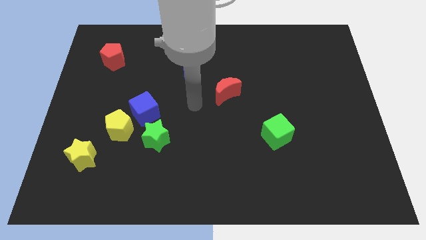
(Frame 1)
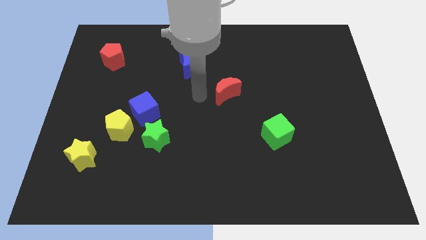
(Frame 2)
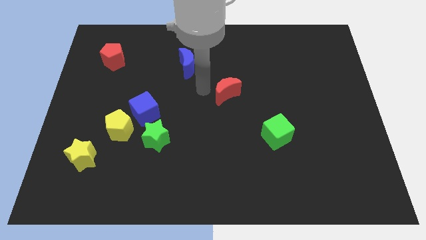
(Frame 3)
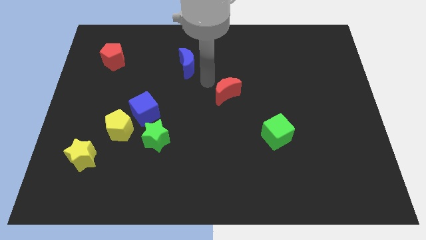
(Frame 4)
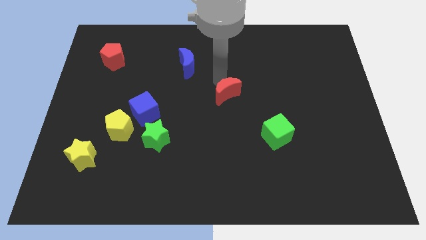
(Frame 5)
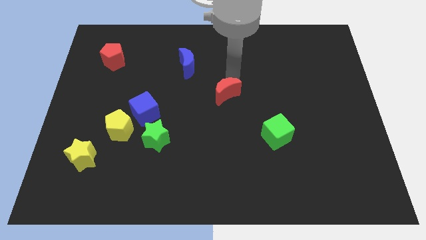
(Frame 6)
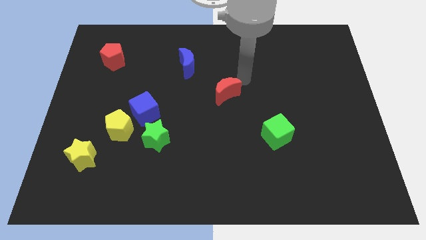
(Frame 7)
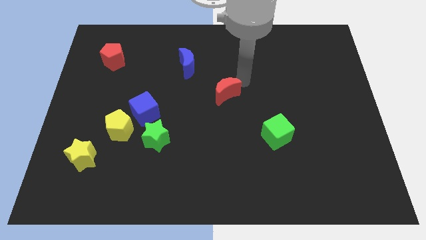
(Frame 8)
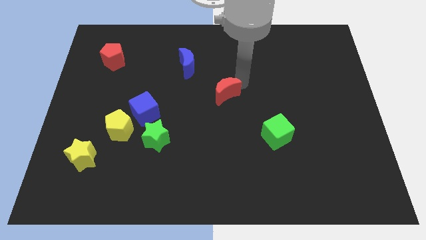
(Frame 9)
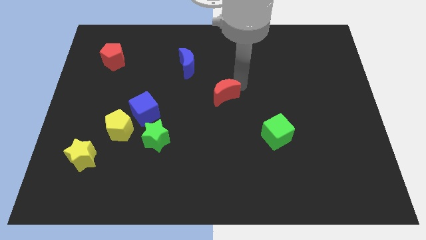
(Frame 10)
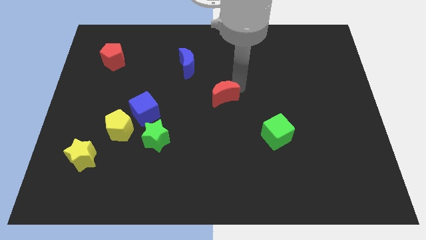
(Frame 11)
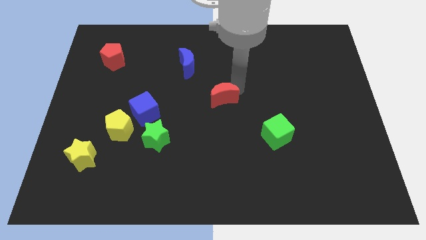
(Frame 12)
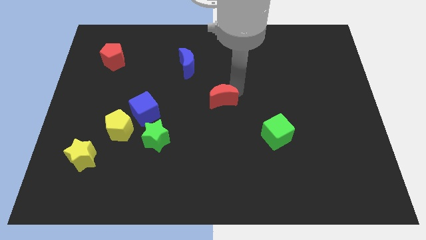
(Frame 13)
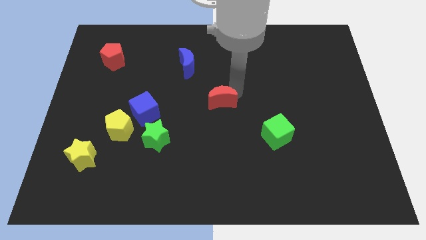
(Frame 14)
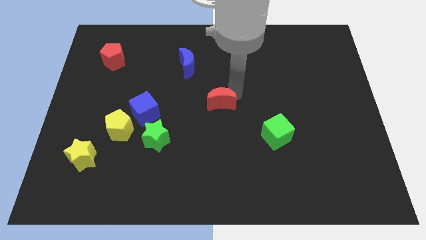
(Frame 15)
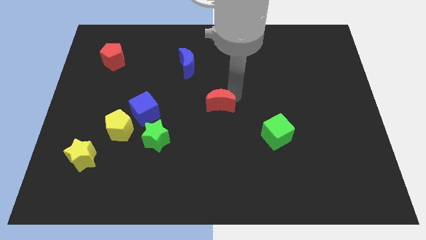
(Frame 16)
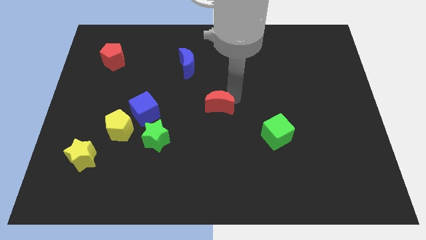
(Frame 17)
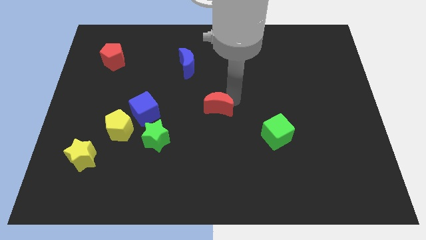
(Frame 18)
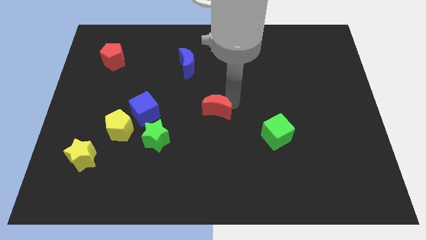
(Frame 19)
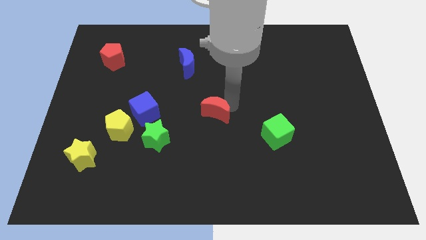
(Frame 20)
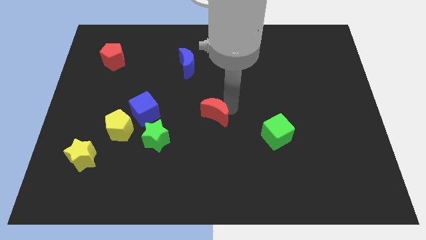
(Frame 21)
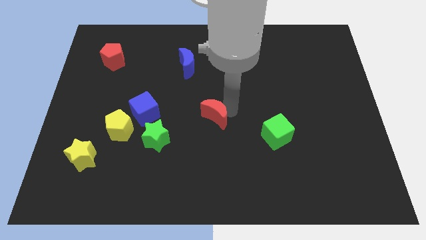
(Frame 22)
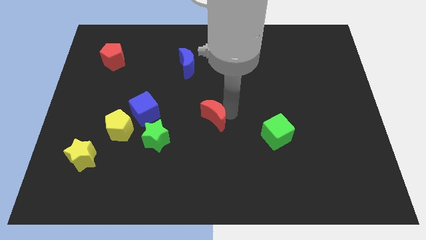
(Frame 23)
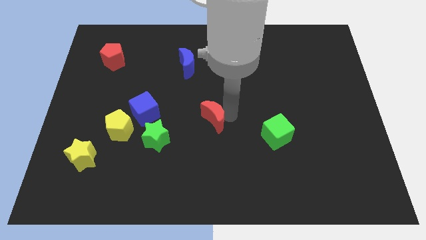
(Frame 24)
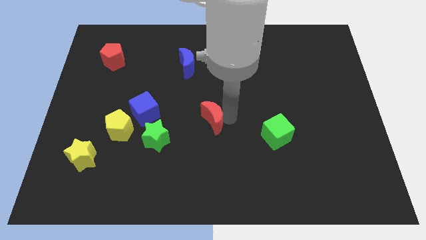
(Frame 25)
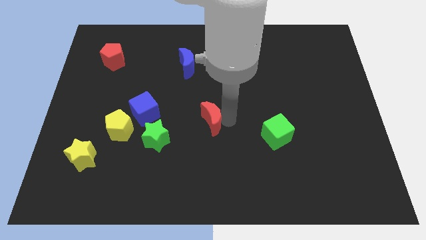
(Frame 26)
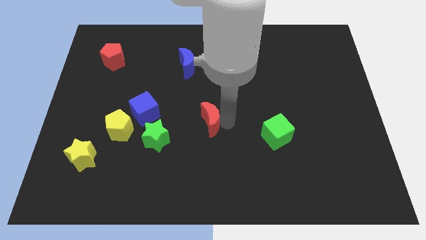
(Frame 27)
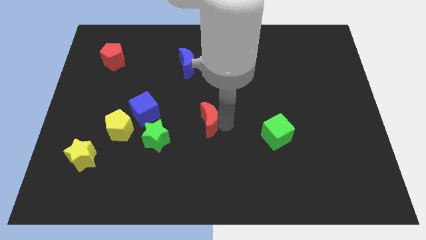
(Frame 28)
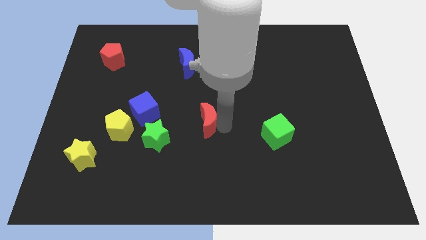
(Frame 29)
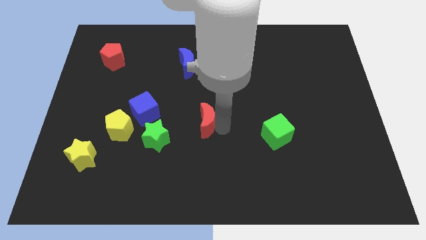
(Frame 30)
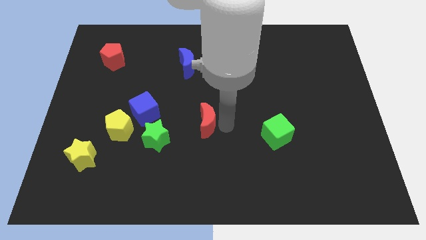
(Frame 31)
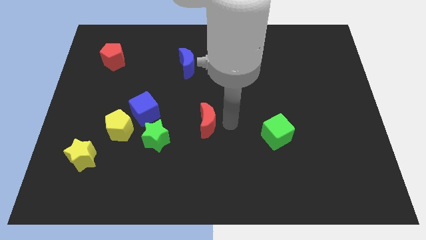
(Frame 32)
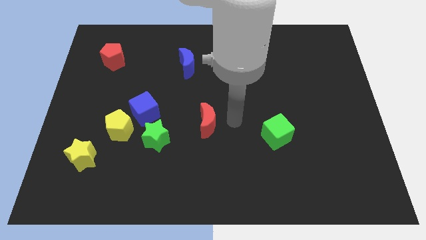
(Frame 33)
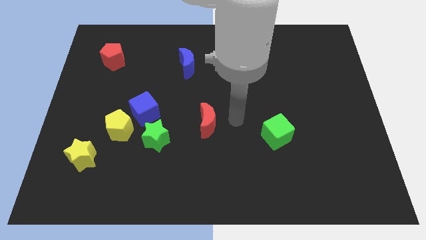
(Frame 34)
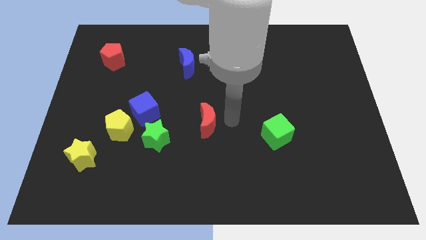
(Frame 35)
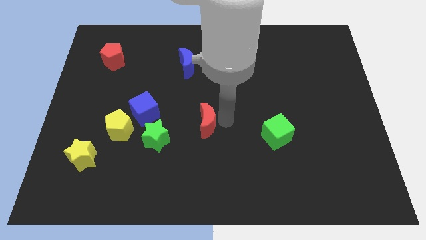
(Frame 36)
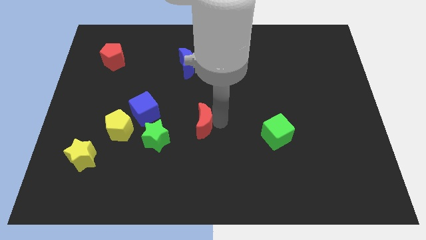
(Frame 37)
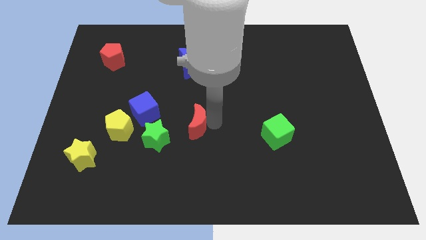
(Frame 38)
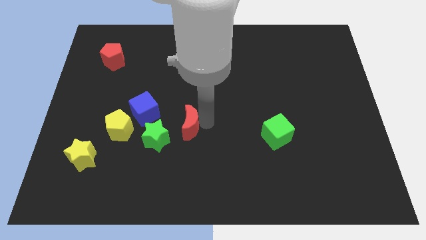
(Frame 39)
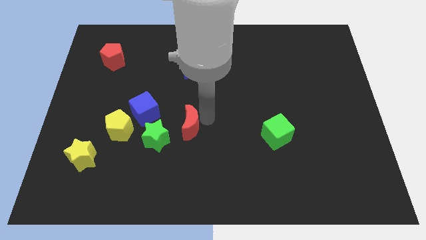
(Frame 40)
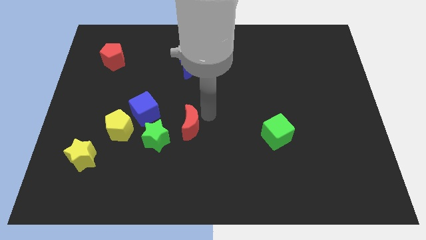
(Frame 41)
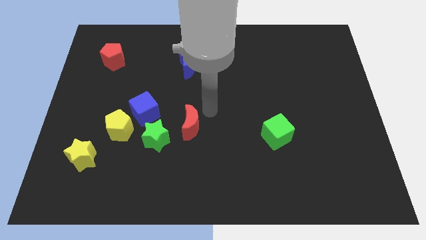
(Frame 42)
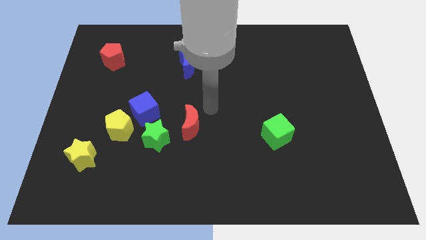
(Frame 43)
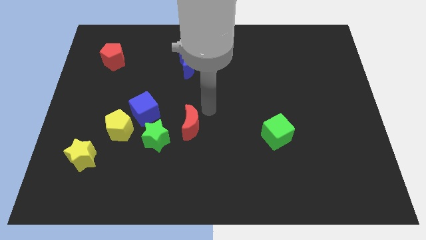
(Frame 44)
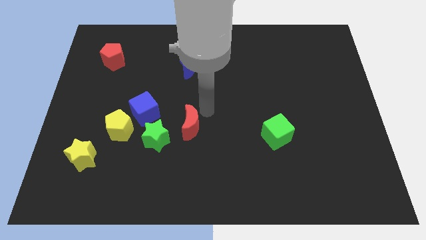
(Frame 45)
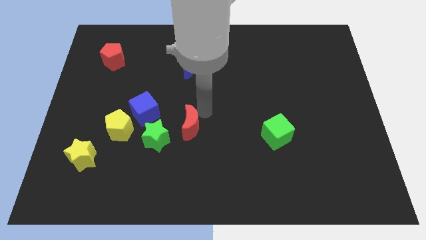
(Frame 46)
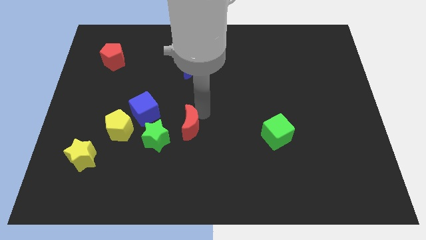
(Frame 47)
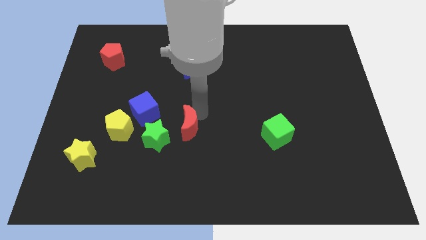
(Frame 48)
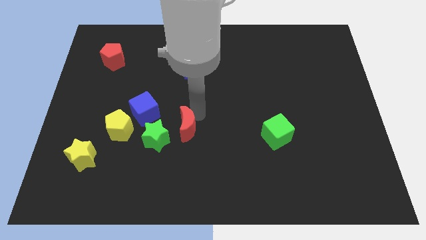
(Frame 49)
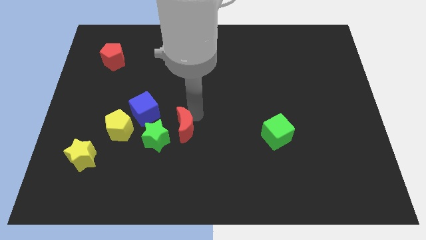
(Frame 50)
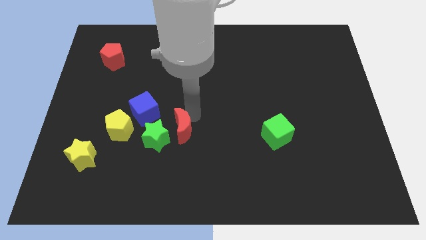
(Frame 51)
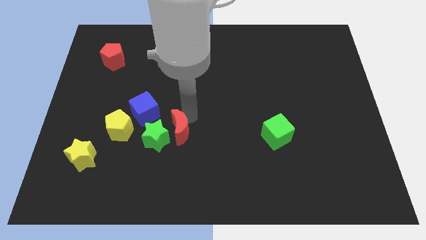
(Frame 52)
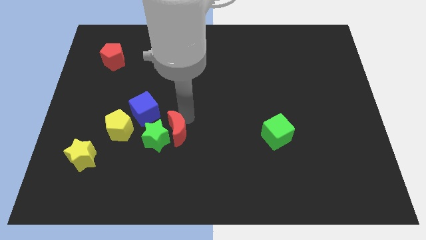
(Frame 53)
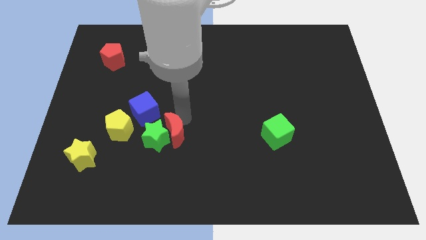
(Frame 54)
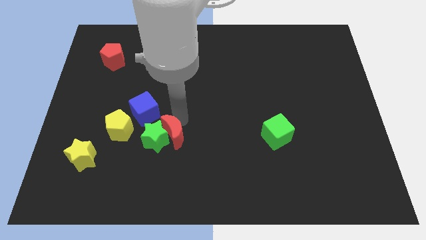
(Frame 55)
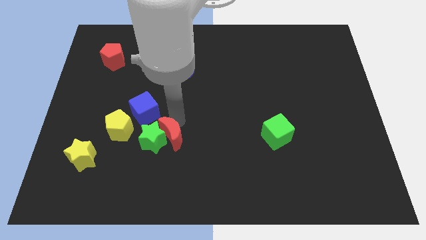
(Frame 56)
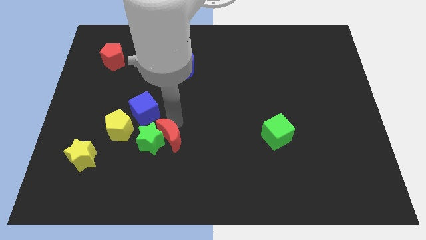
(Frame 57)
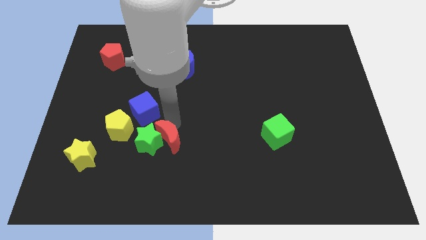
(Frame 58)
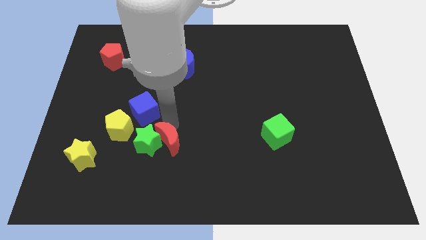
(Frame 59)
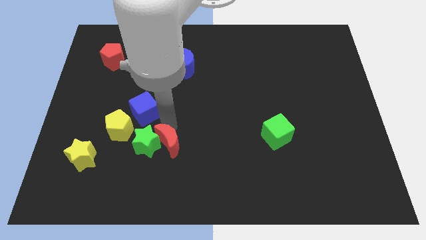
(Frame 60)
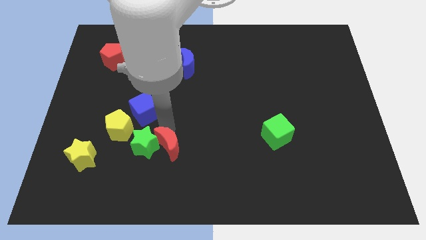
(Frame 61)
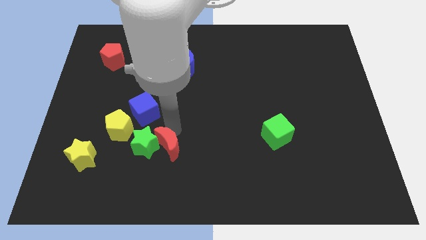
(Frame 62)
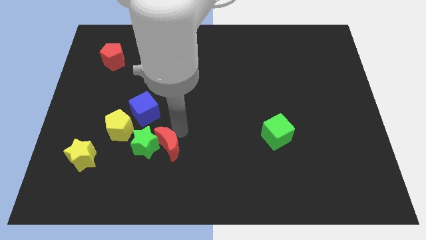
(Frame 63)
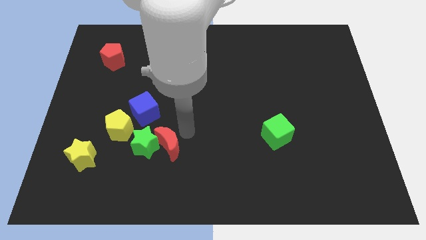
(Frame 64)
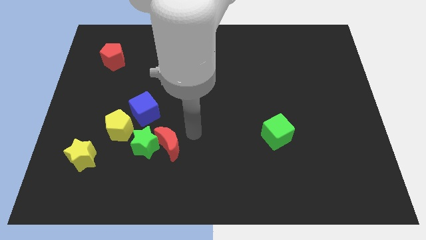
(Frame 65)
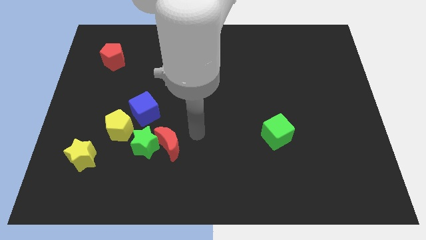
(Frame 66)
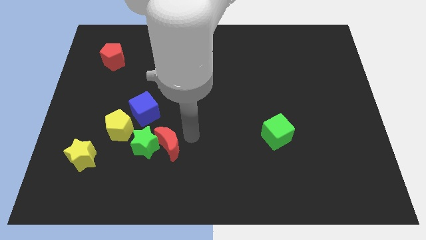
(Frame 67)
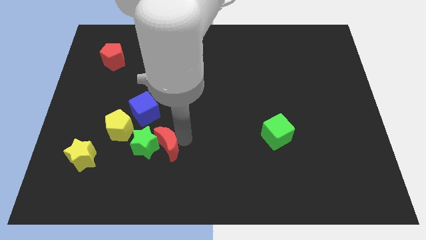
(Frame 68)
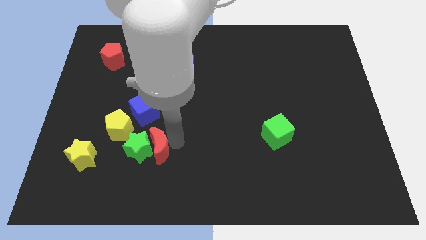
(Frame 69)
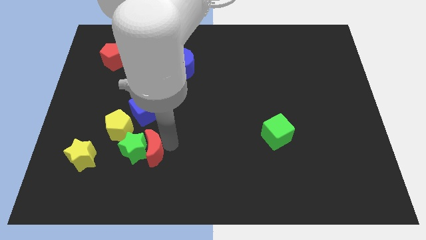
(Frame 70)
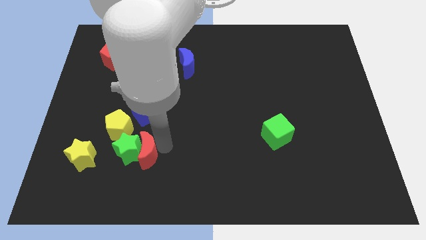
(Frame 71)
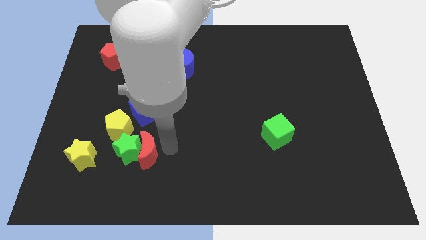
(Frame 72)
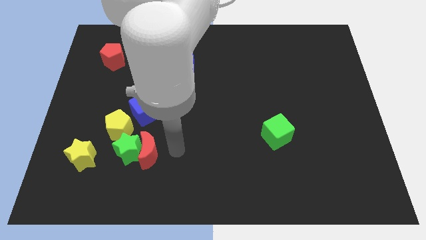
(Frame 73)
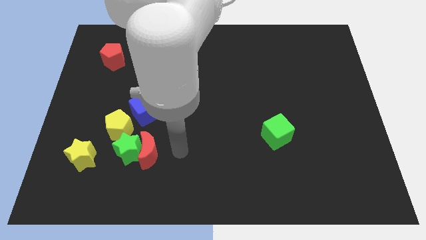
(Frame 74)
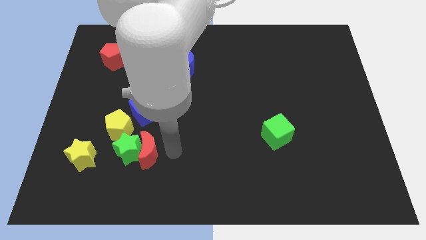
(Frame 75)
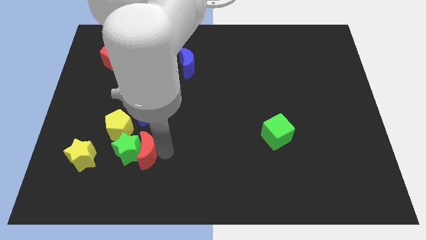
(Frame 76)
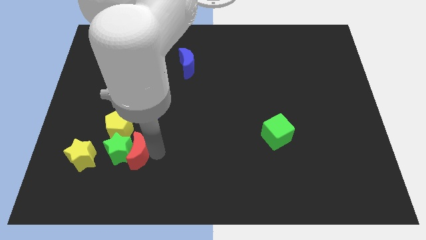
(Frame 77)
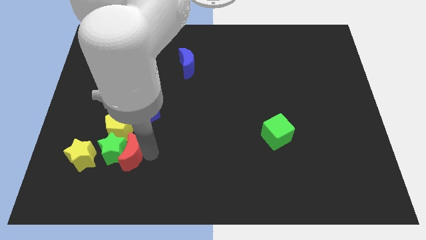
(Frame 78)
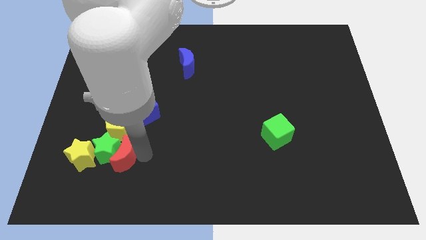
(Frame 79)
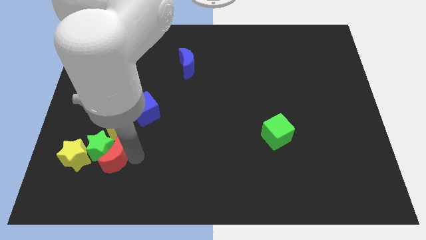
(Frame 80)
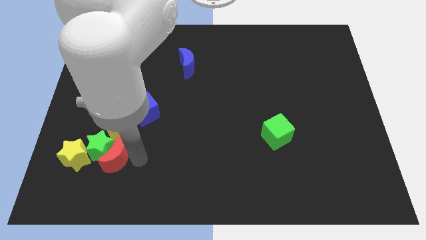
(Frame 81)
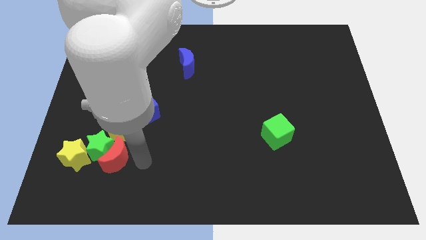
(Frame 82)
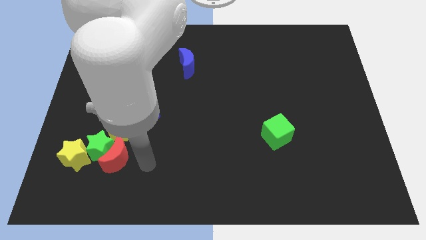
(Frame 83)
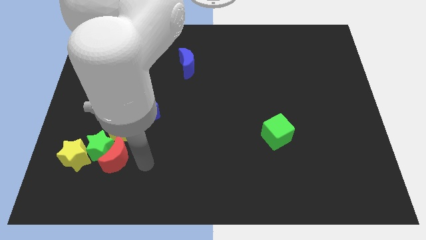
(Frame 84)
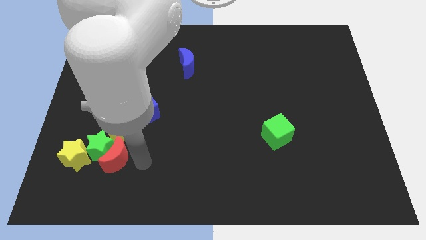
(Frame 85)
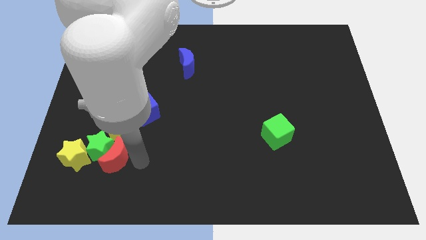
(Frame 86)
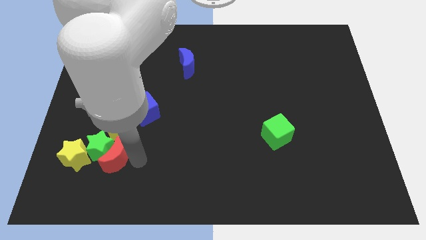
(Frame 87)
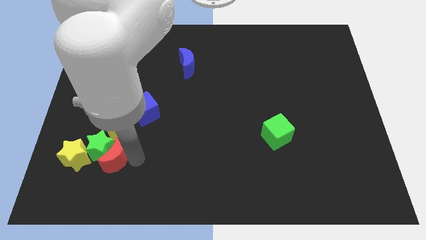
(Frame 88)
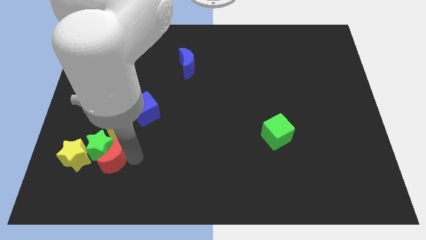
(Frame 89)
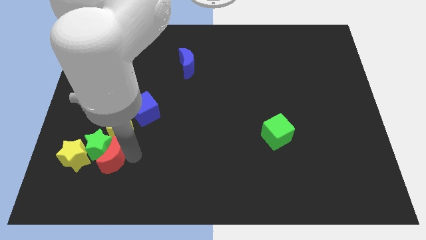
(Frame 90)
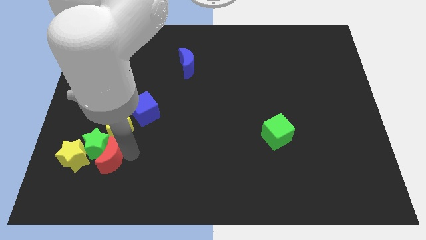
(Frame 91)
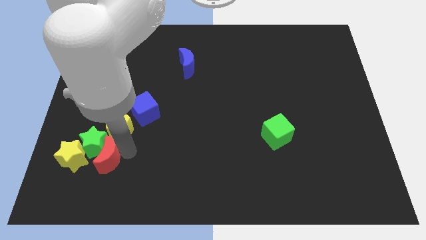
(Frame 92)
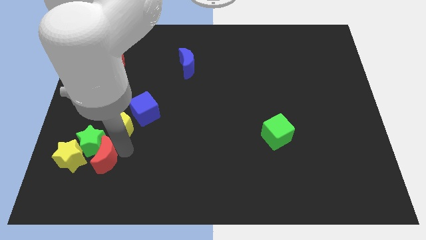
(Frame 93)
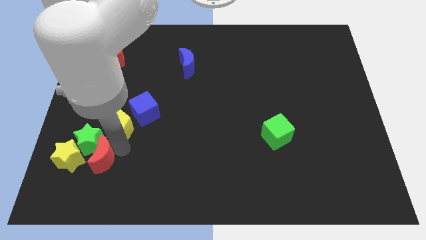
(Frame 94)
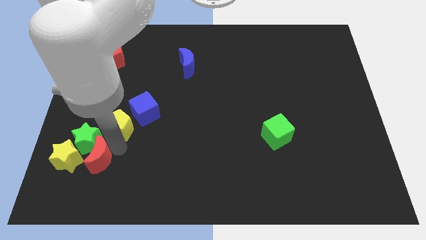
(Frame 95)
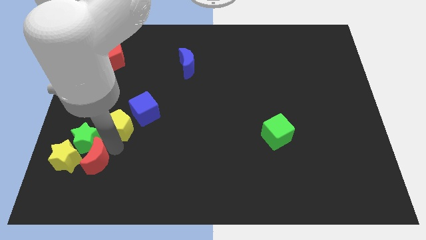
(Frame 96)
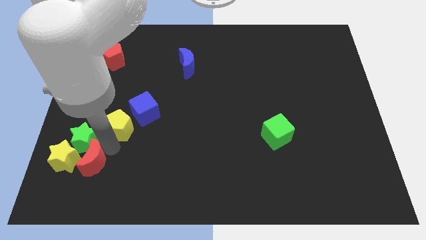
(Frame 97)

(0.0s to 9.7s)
slide the red moon close to the yellow star
